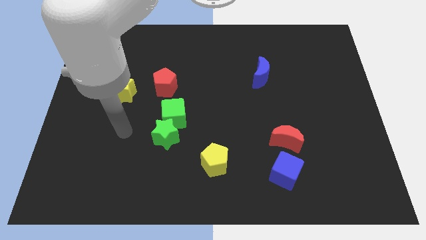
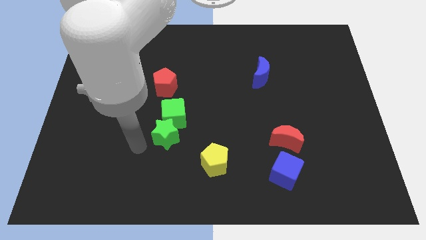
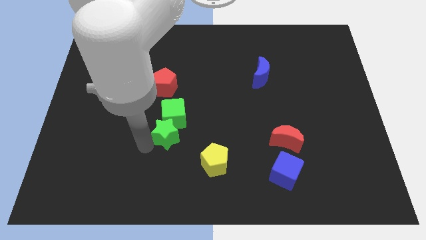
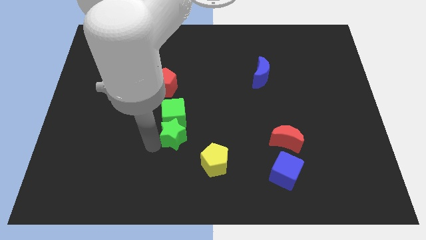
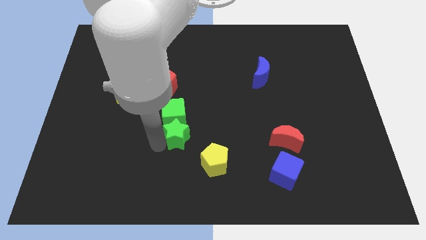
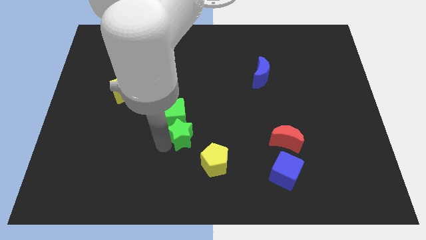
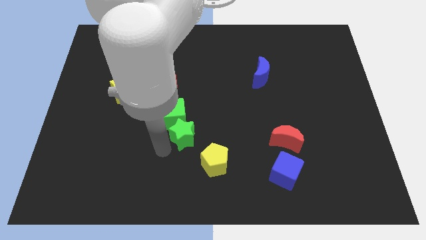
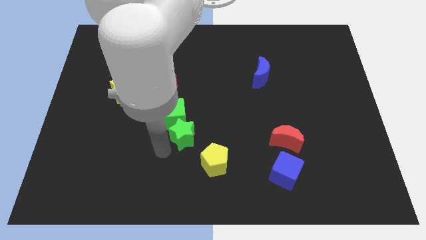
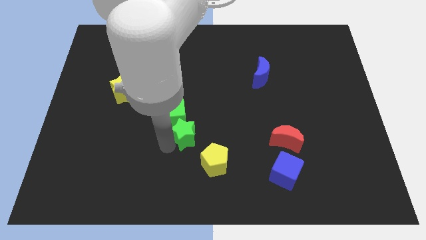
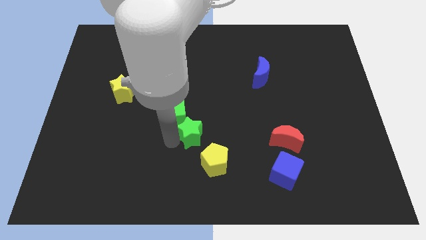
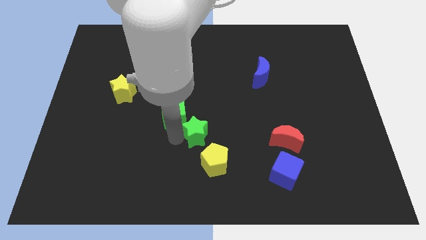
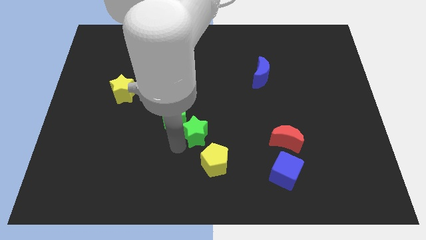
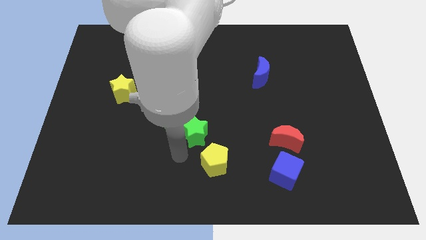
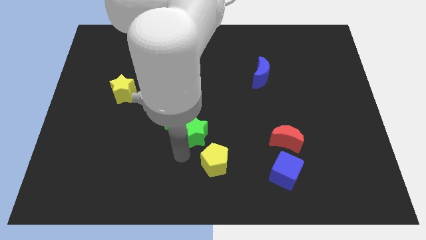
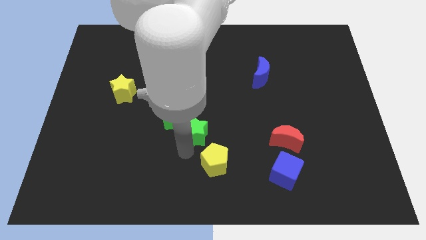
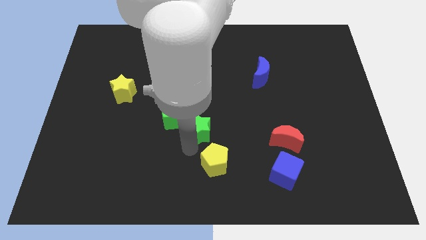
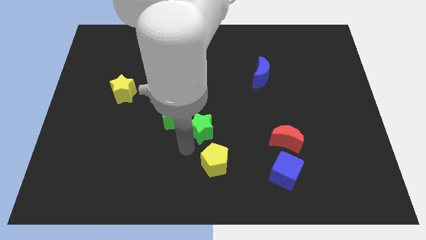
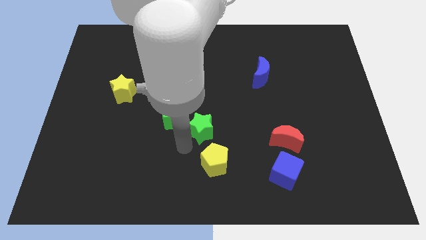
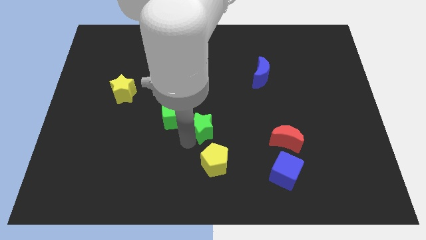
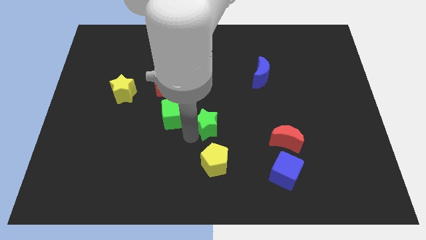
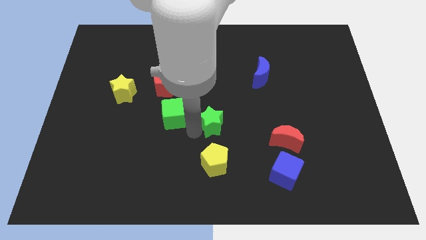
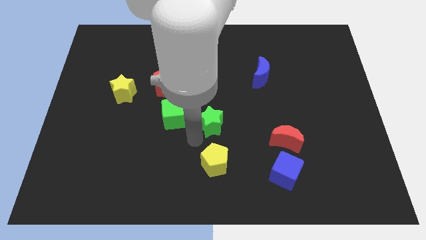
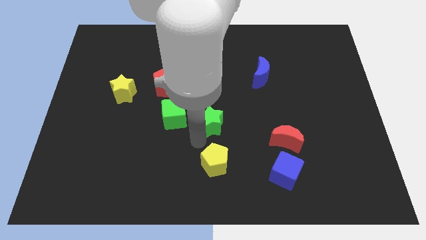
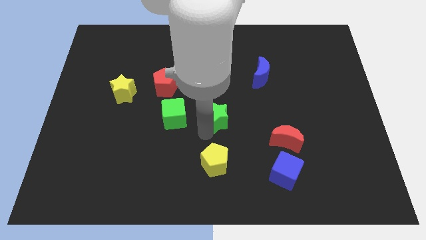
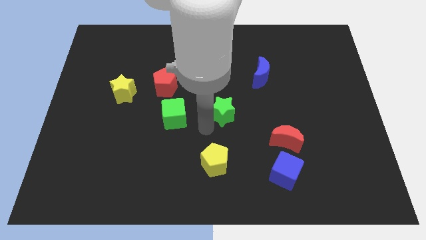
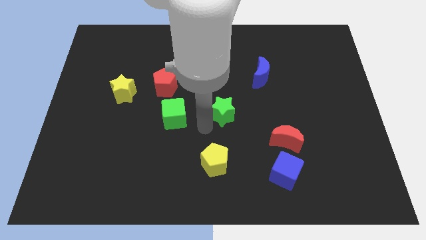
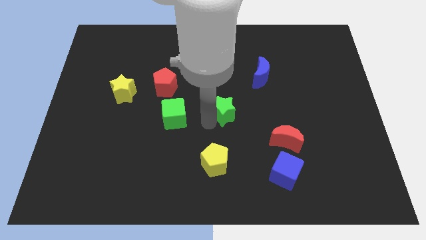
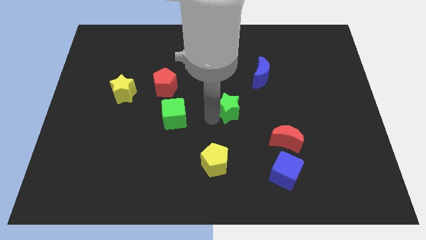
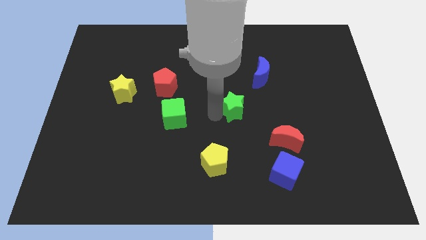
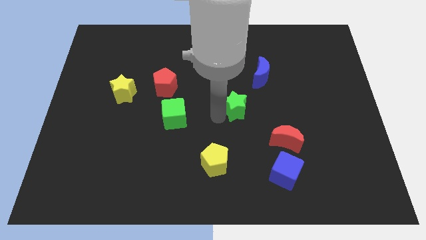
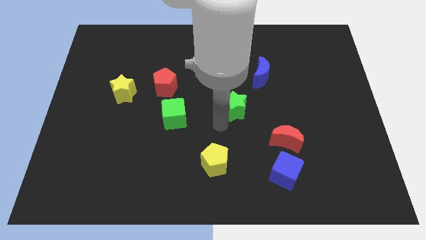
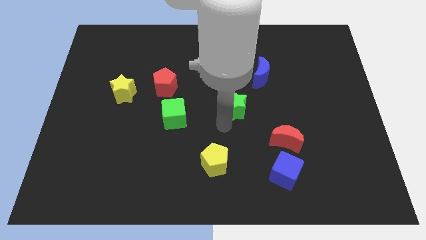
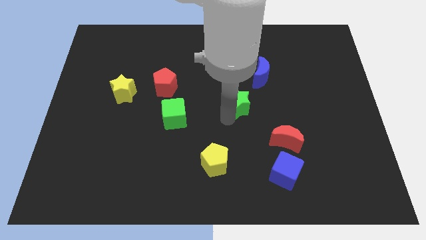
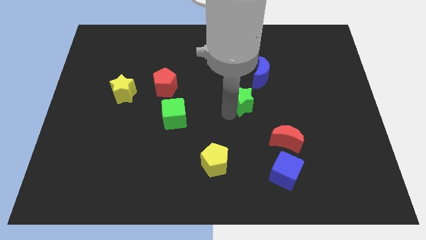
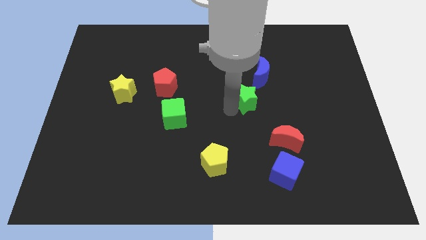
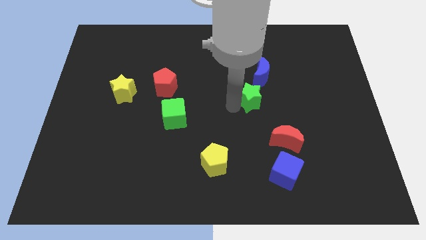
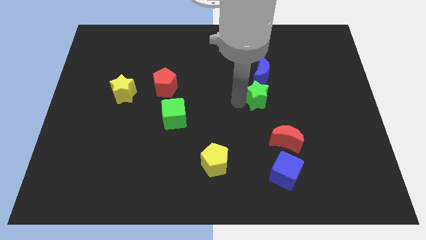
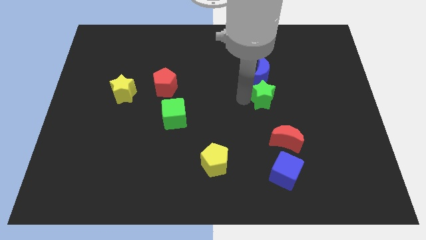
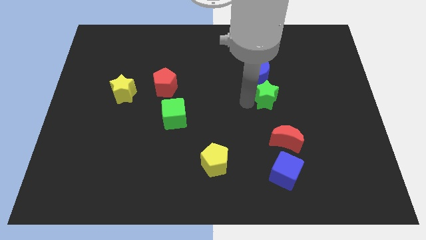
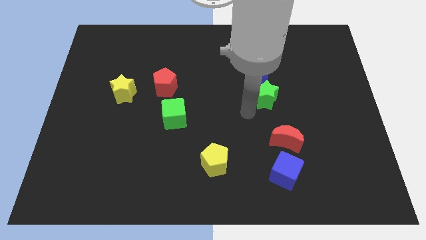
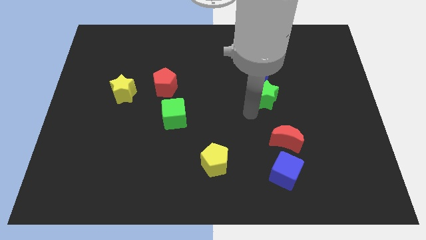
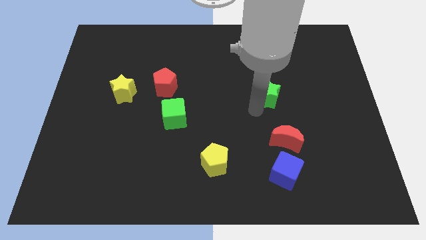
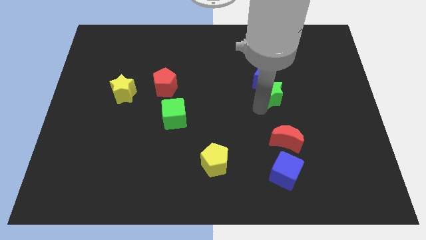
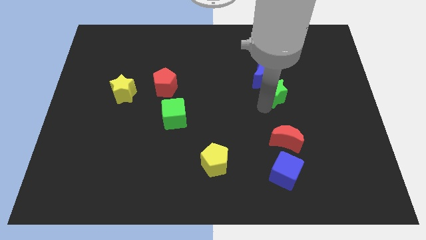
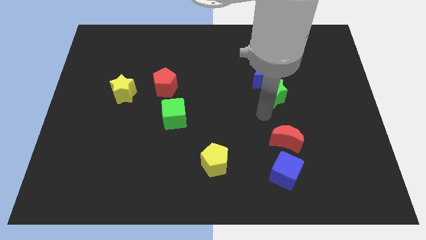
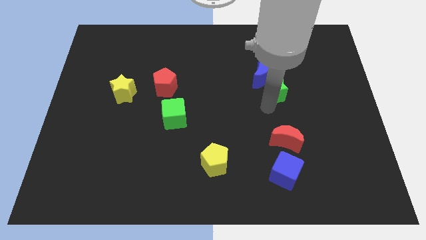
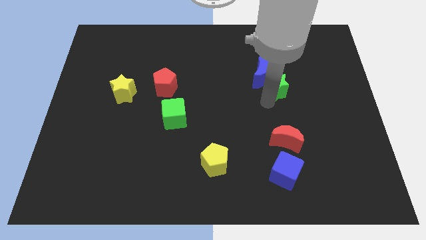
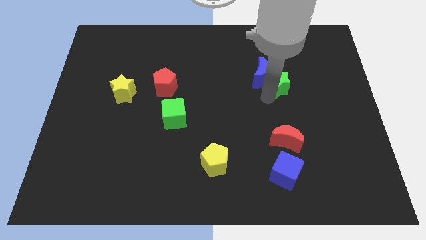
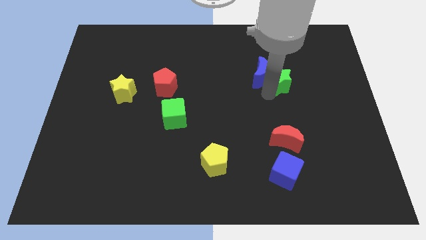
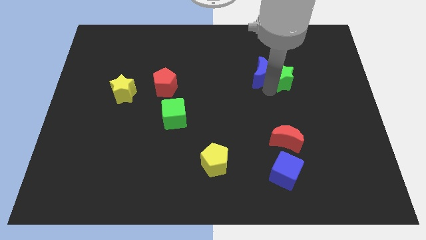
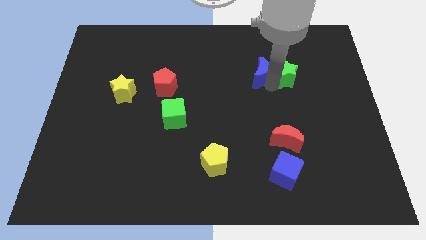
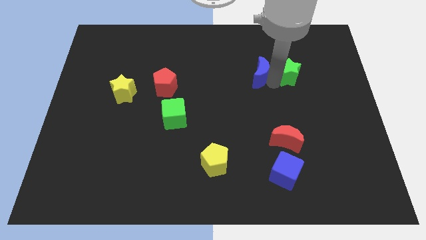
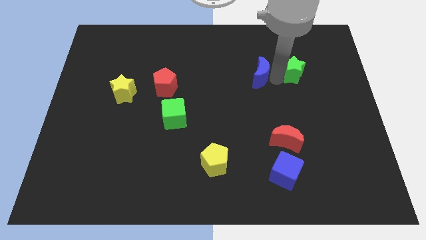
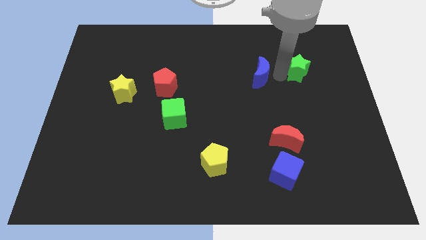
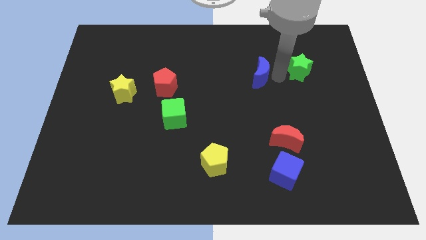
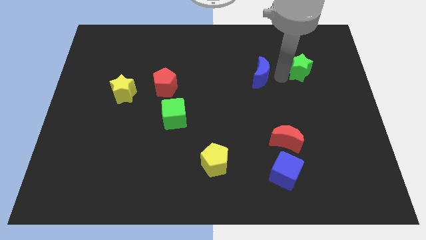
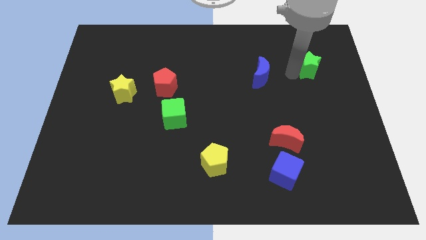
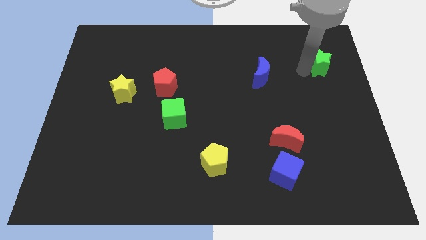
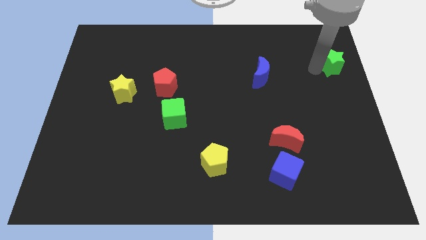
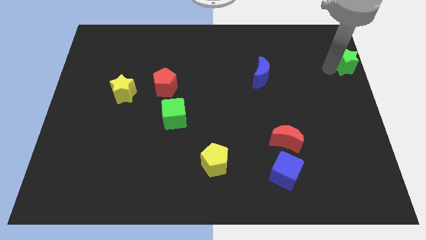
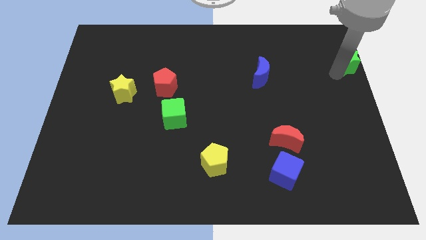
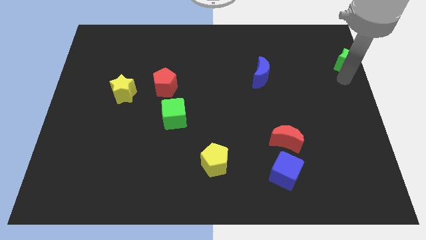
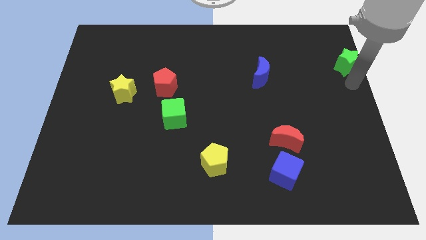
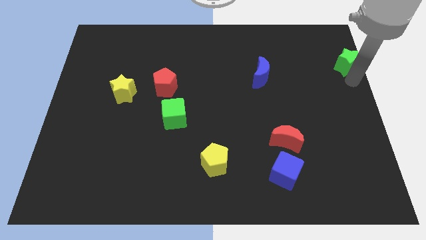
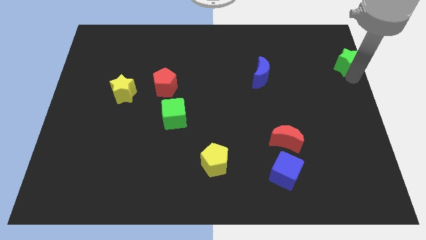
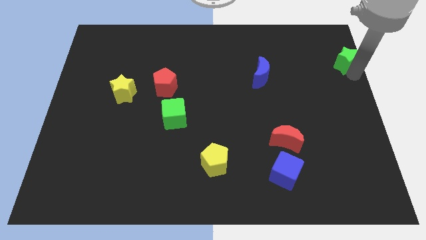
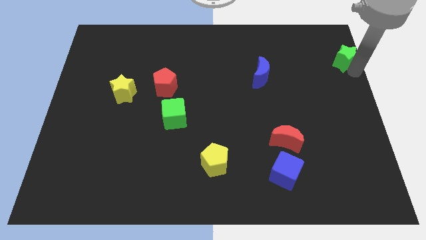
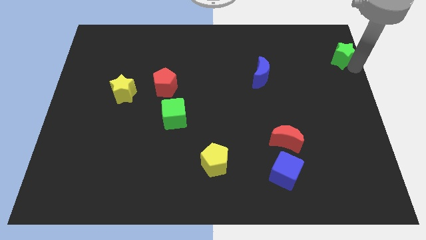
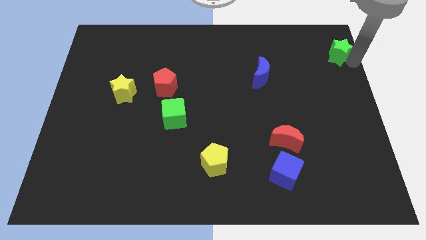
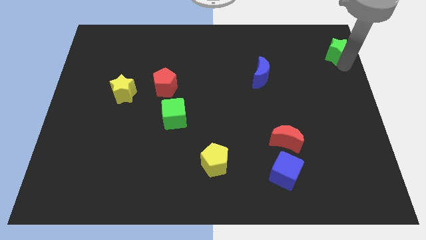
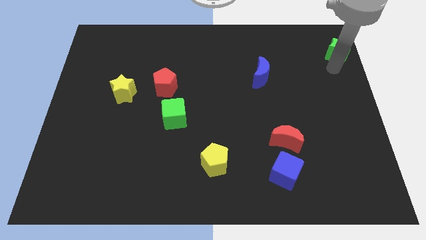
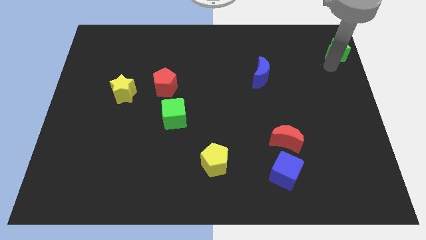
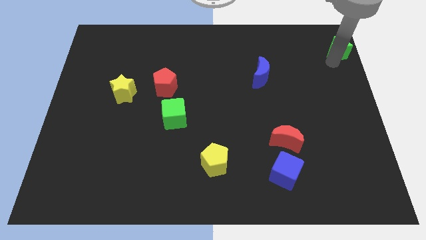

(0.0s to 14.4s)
slide the green star to the top right corner
